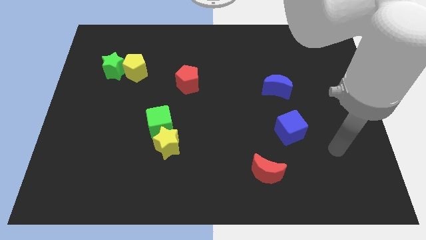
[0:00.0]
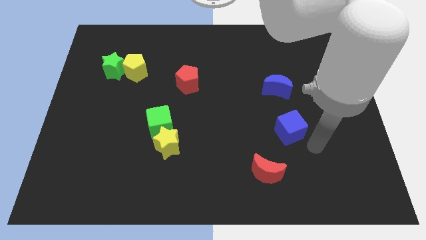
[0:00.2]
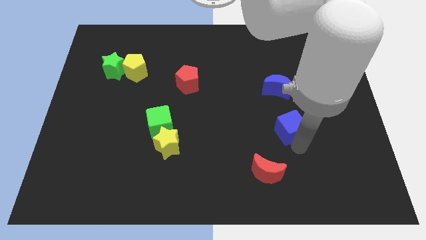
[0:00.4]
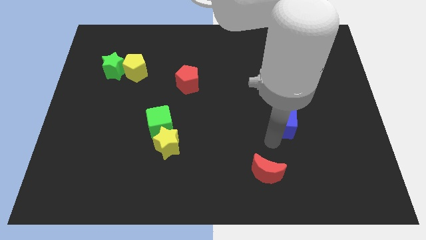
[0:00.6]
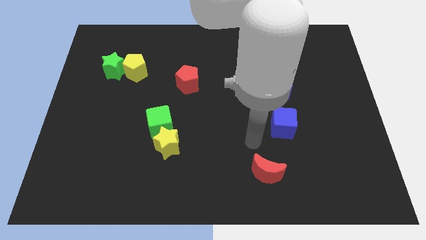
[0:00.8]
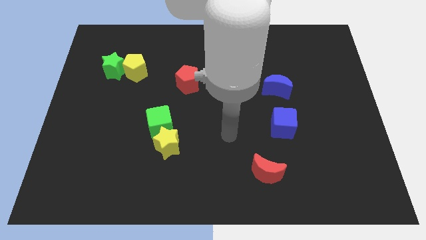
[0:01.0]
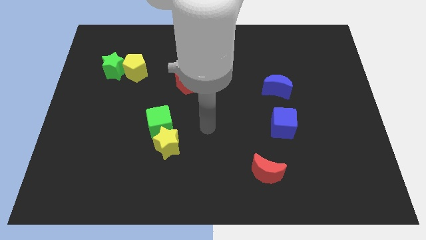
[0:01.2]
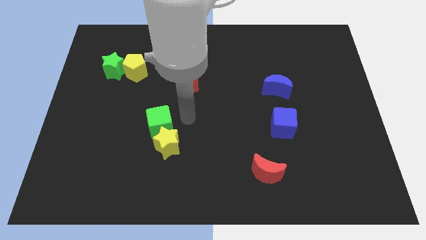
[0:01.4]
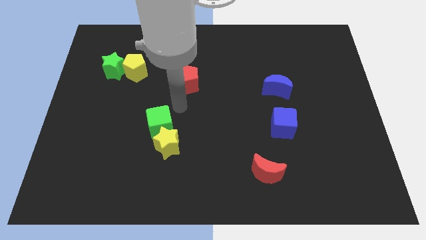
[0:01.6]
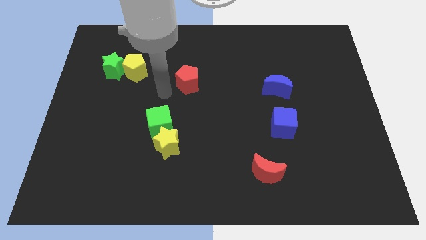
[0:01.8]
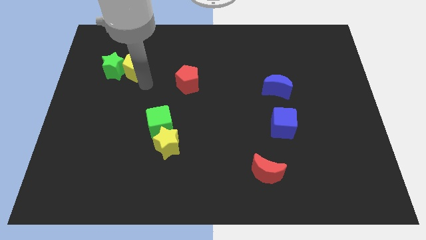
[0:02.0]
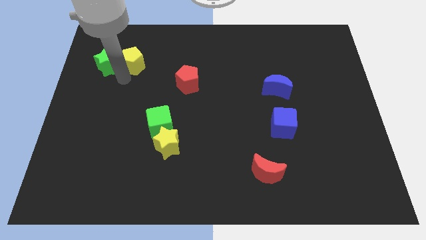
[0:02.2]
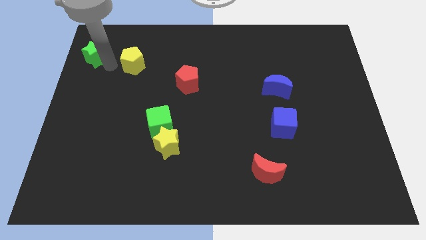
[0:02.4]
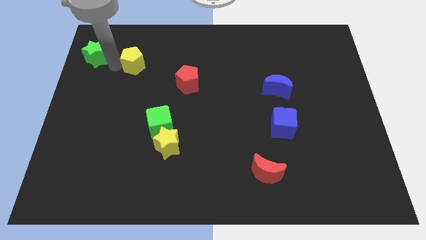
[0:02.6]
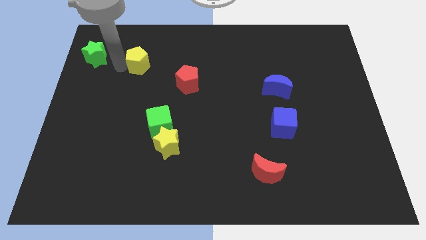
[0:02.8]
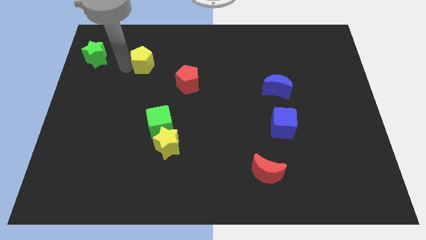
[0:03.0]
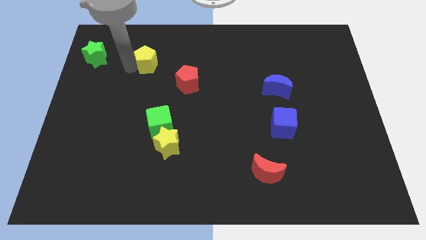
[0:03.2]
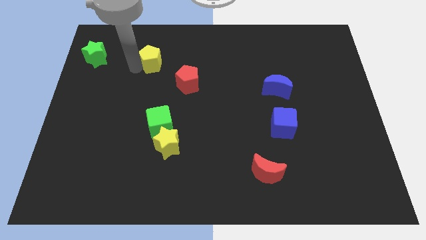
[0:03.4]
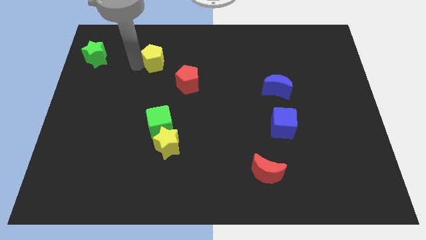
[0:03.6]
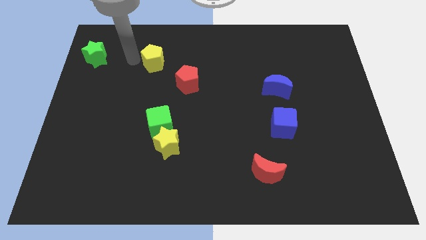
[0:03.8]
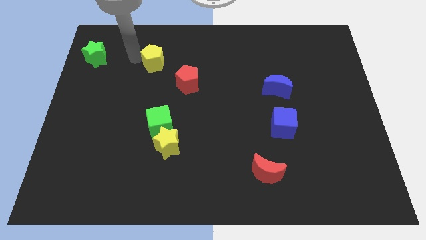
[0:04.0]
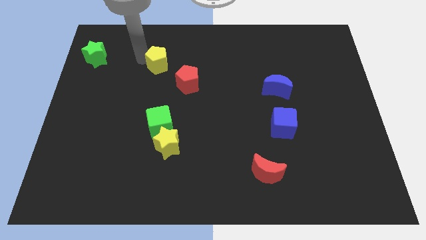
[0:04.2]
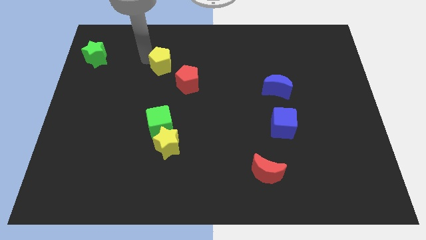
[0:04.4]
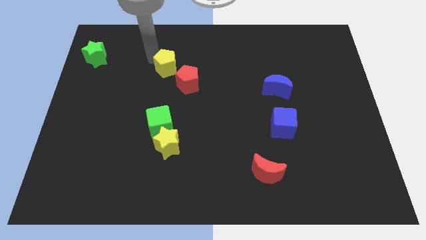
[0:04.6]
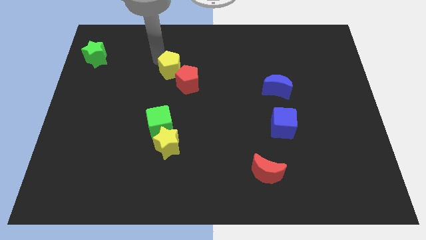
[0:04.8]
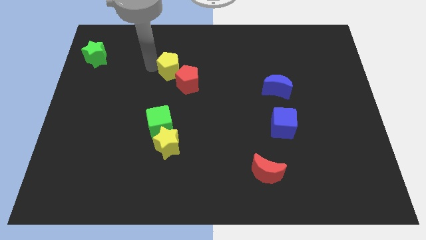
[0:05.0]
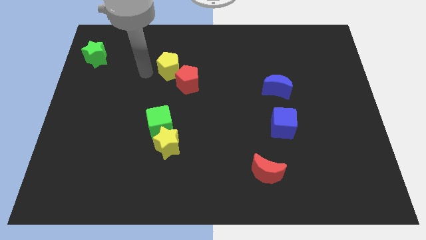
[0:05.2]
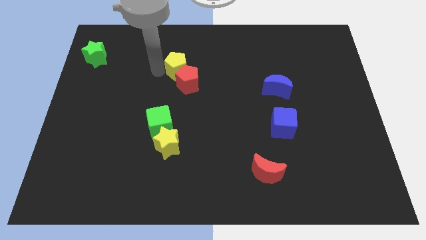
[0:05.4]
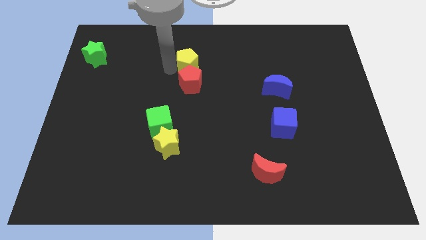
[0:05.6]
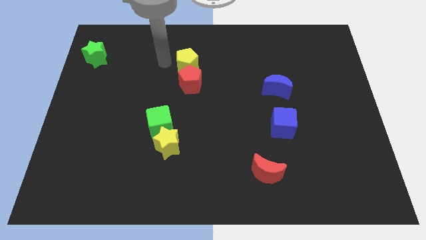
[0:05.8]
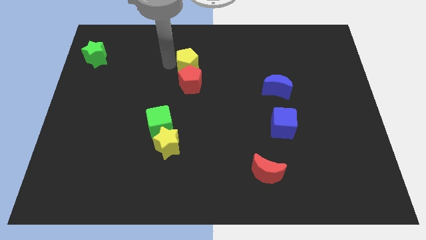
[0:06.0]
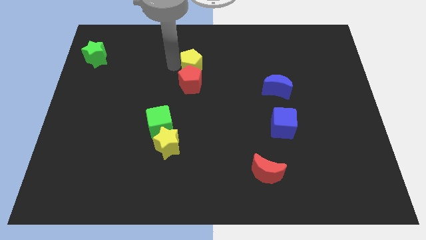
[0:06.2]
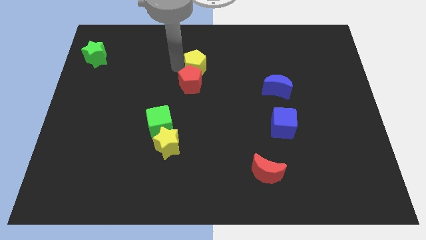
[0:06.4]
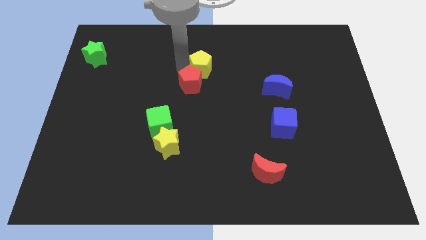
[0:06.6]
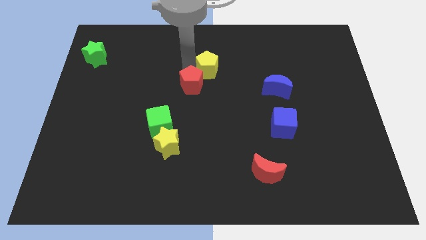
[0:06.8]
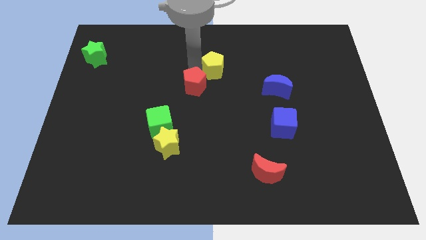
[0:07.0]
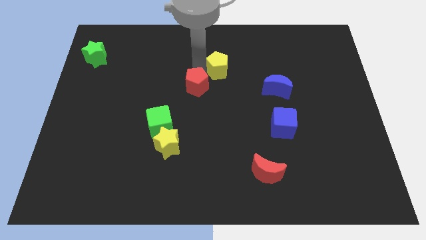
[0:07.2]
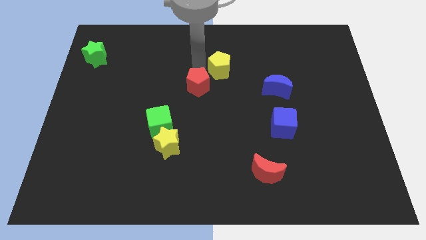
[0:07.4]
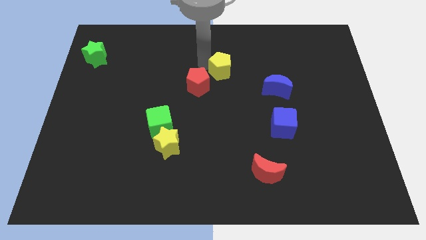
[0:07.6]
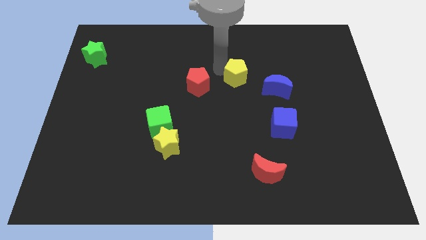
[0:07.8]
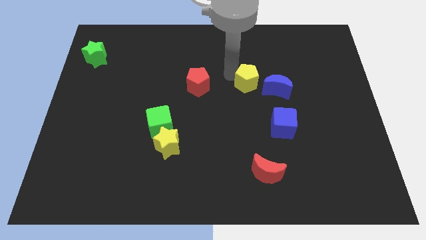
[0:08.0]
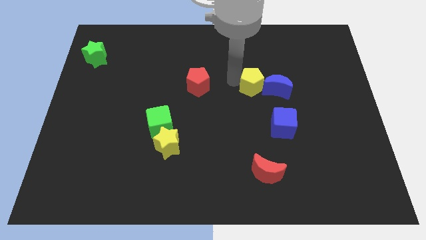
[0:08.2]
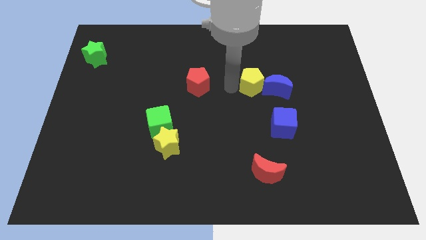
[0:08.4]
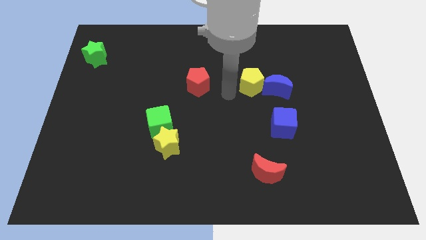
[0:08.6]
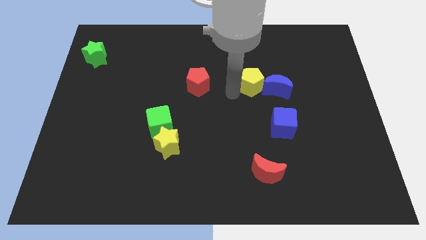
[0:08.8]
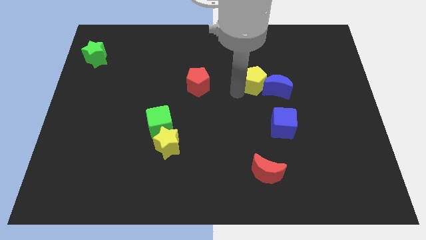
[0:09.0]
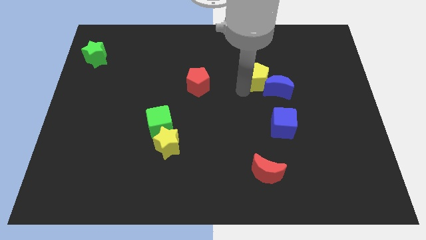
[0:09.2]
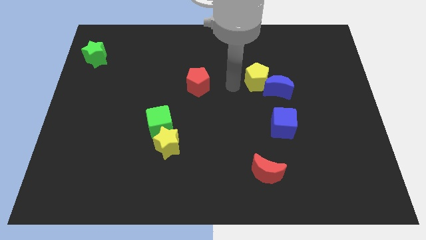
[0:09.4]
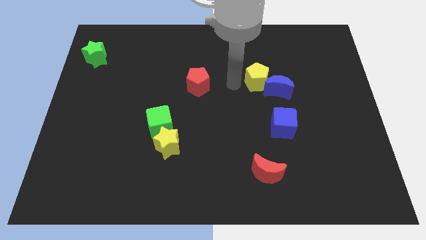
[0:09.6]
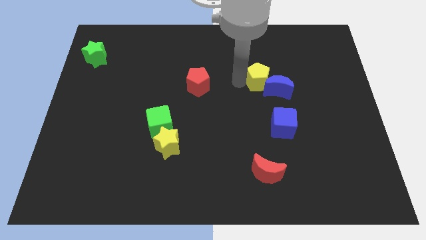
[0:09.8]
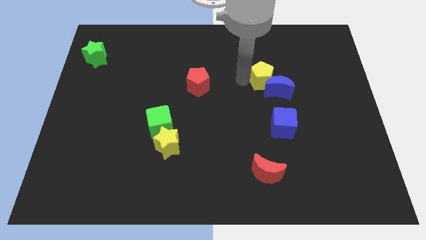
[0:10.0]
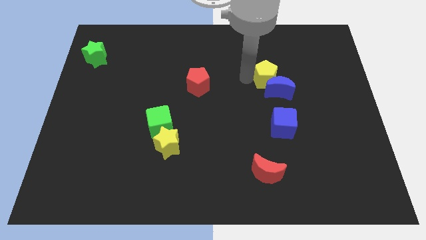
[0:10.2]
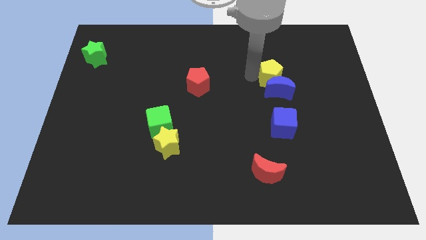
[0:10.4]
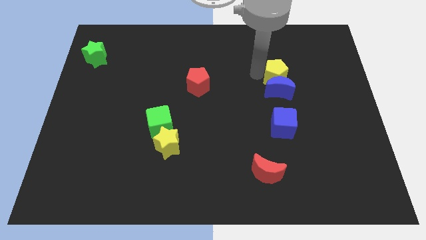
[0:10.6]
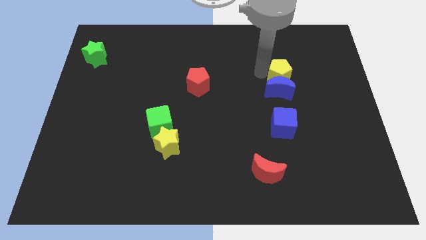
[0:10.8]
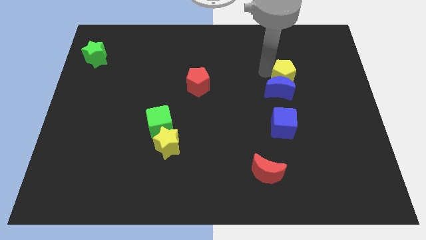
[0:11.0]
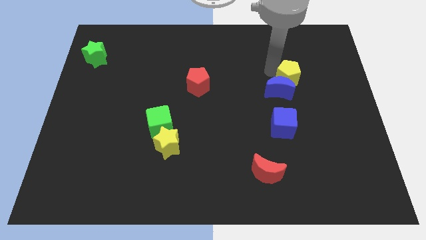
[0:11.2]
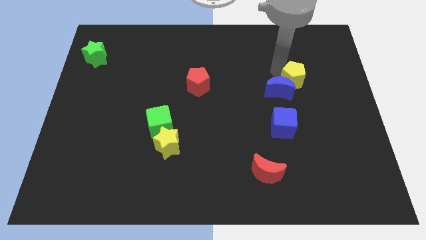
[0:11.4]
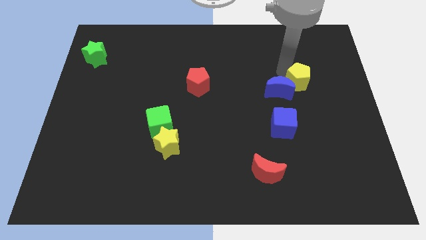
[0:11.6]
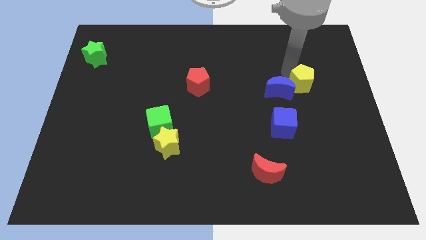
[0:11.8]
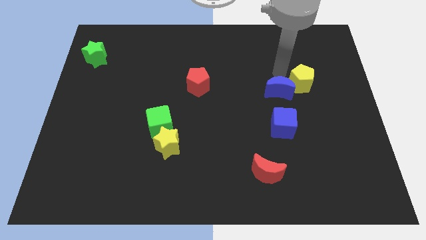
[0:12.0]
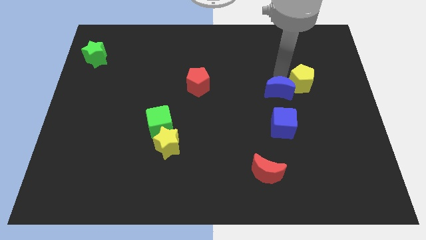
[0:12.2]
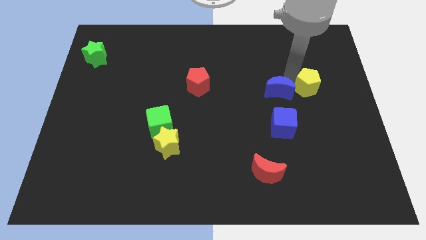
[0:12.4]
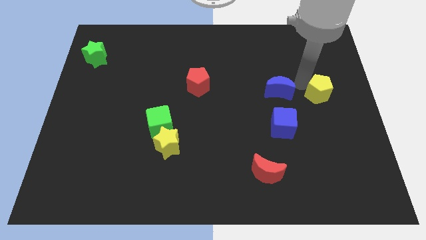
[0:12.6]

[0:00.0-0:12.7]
slide the yellow pentagon to the right side
